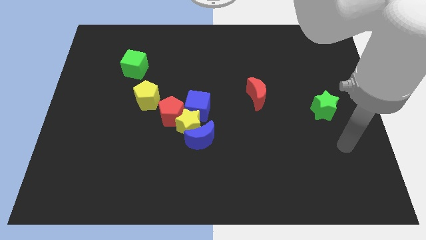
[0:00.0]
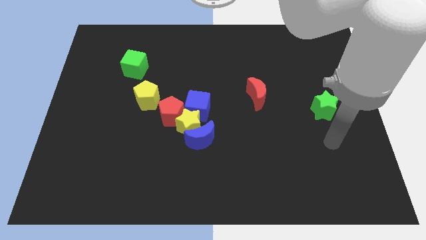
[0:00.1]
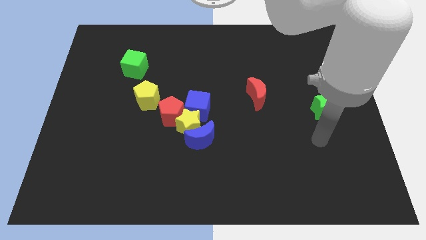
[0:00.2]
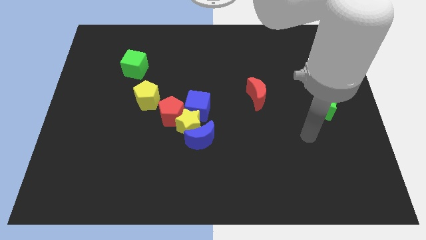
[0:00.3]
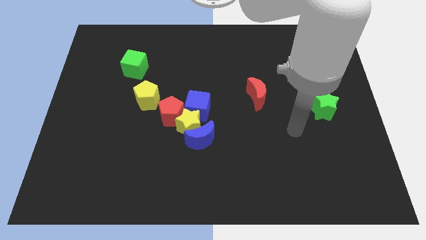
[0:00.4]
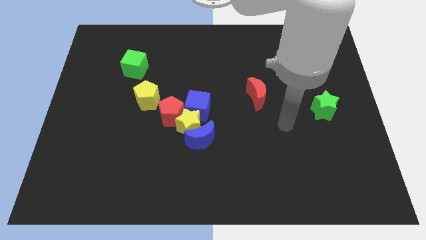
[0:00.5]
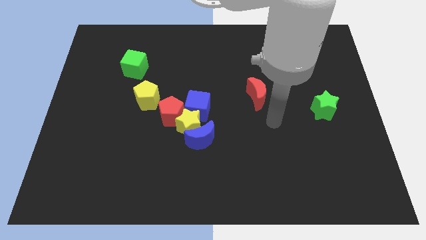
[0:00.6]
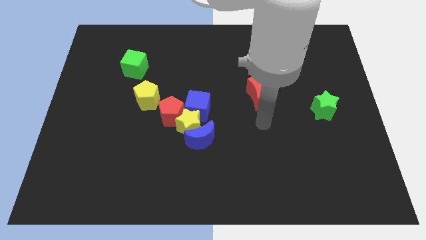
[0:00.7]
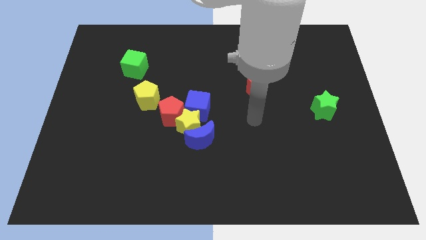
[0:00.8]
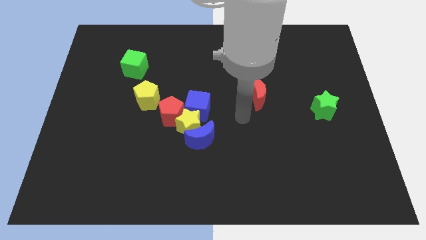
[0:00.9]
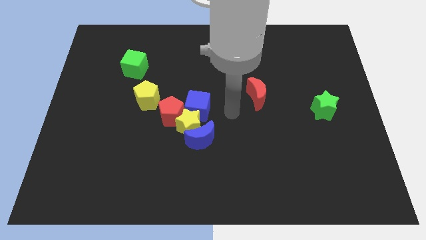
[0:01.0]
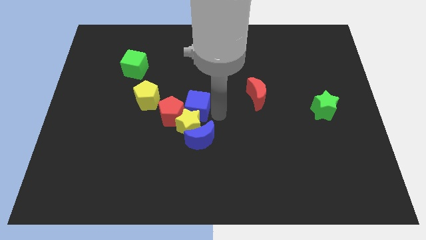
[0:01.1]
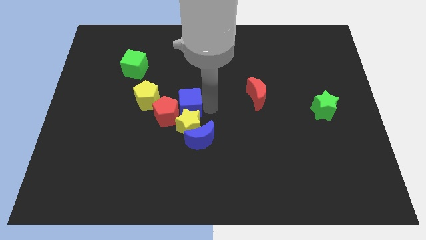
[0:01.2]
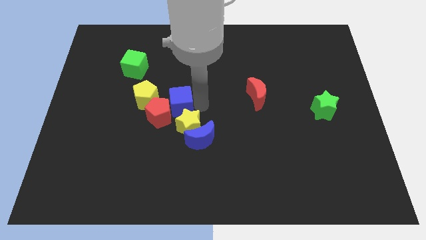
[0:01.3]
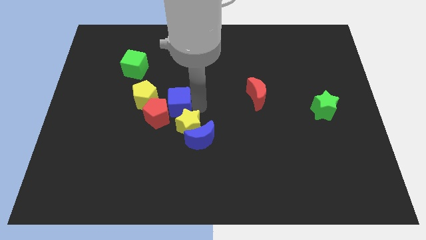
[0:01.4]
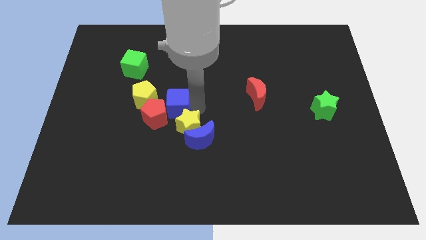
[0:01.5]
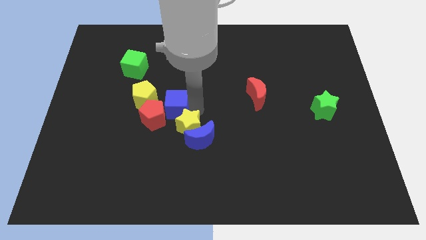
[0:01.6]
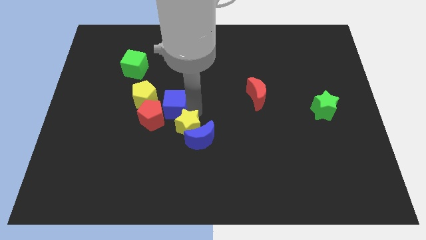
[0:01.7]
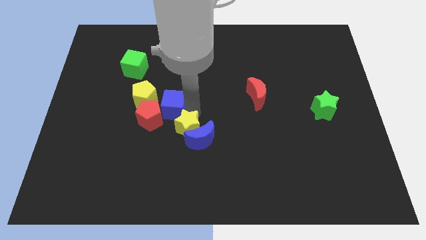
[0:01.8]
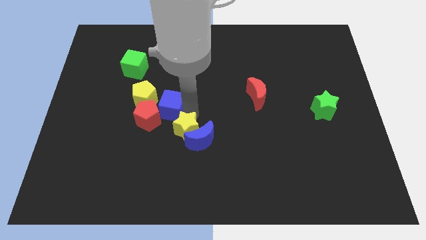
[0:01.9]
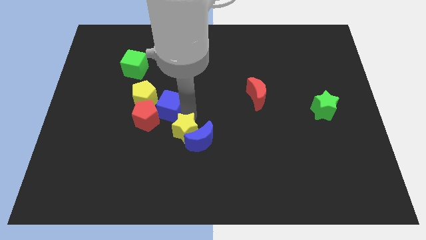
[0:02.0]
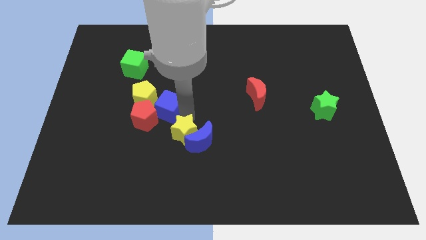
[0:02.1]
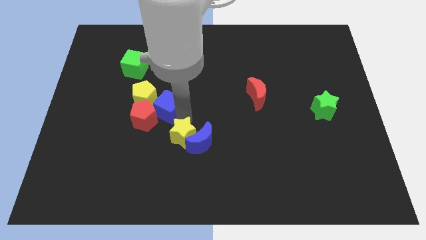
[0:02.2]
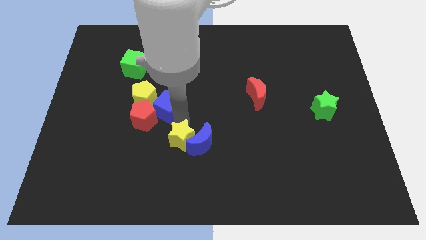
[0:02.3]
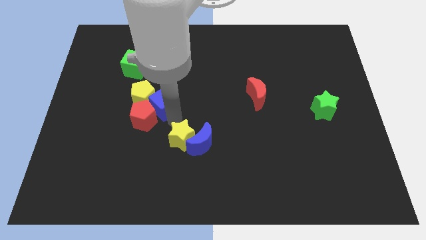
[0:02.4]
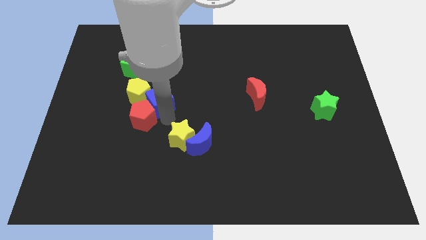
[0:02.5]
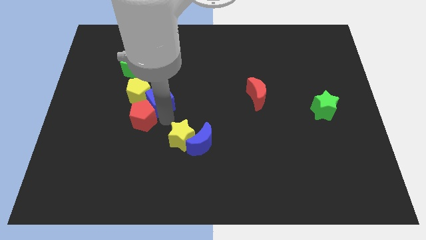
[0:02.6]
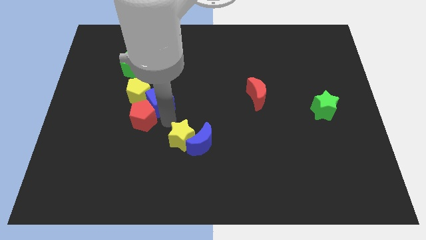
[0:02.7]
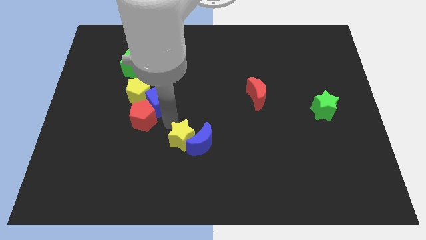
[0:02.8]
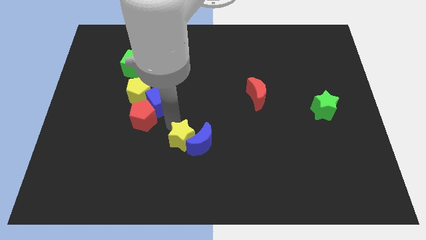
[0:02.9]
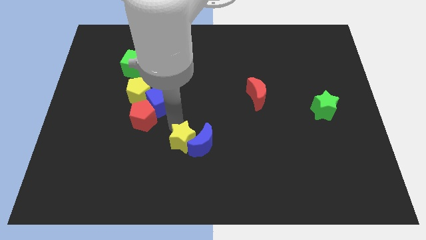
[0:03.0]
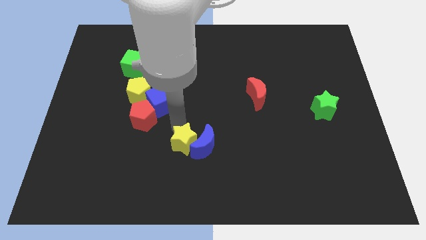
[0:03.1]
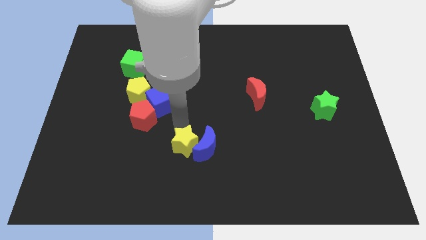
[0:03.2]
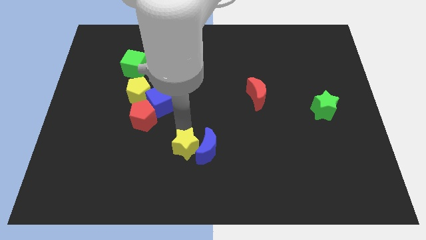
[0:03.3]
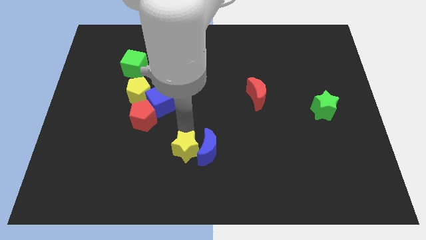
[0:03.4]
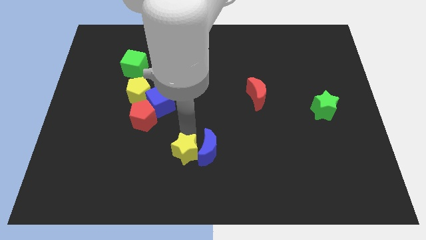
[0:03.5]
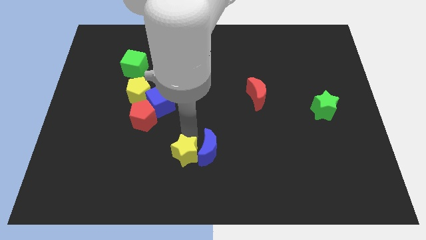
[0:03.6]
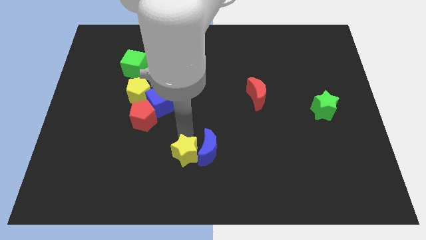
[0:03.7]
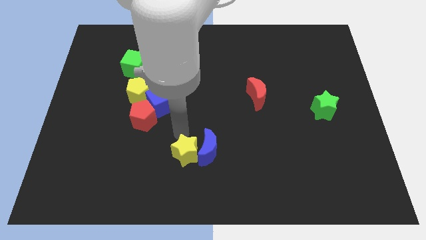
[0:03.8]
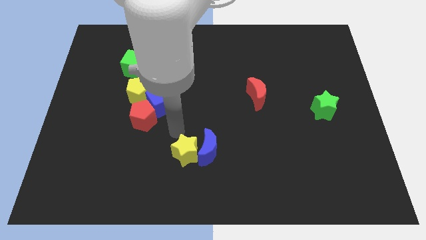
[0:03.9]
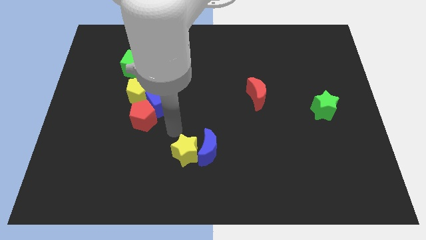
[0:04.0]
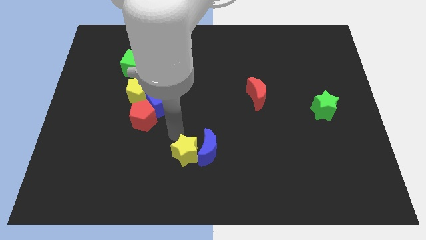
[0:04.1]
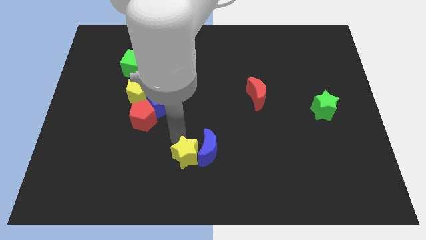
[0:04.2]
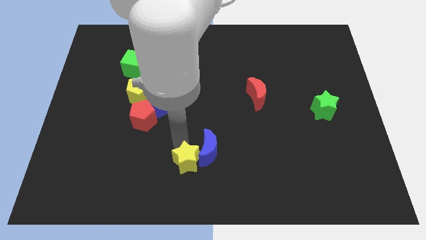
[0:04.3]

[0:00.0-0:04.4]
pull the yellow star apart from the blue moon, red pentagon, and blue cube

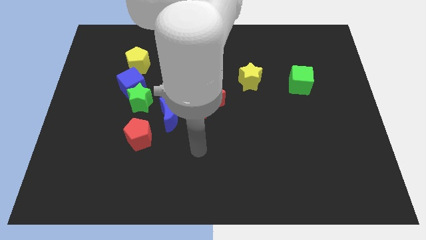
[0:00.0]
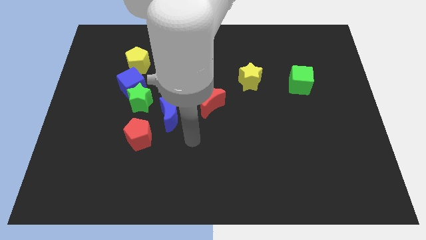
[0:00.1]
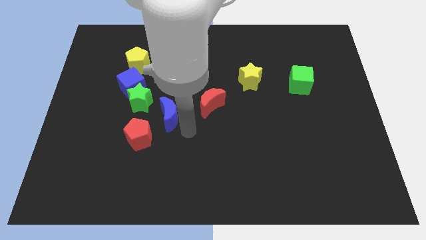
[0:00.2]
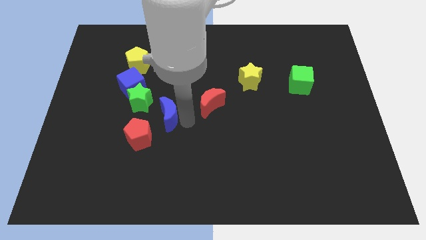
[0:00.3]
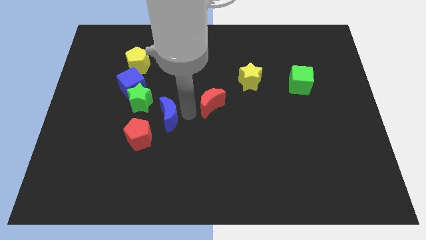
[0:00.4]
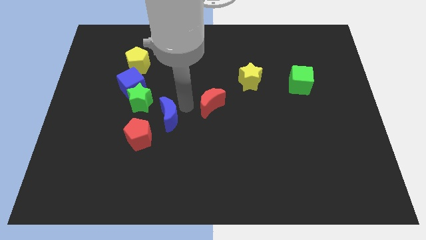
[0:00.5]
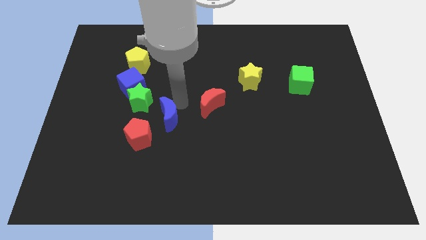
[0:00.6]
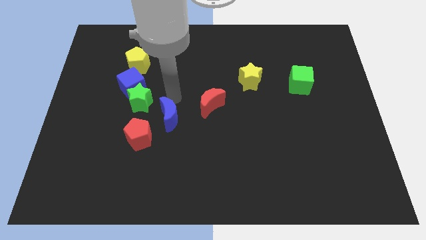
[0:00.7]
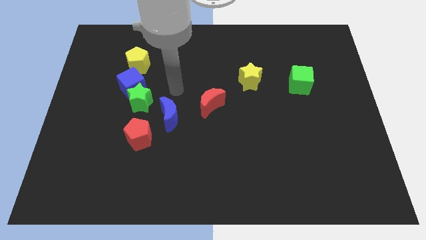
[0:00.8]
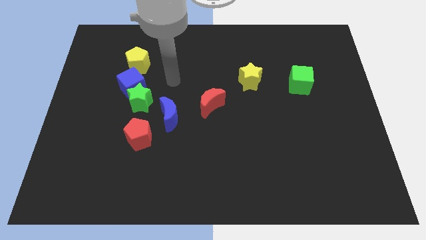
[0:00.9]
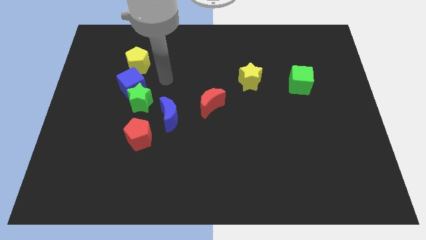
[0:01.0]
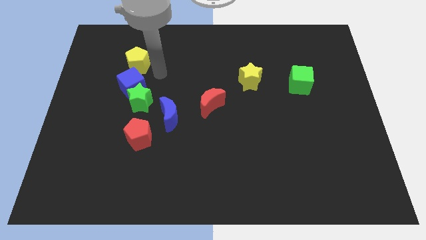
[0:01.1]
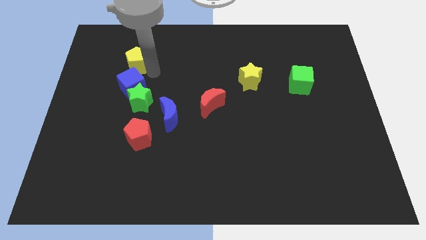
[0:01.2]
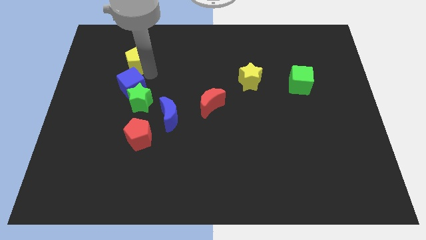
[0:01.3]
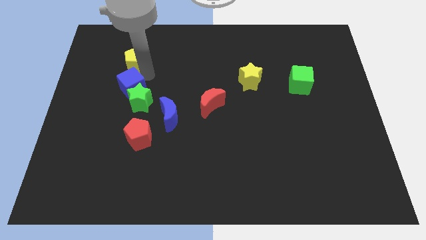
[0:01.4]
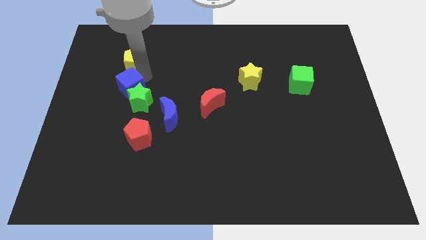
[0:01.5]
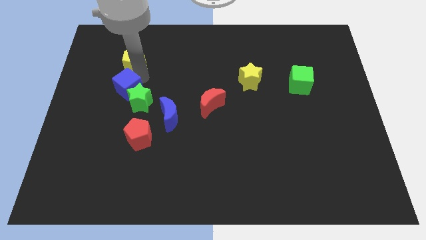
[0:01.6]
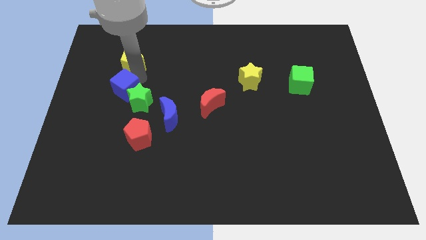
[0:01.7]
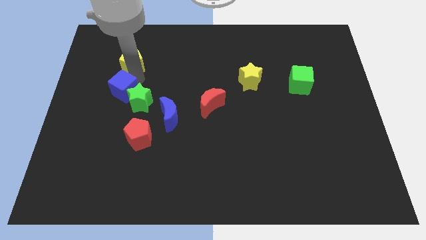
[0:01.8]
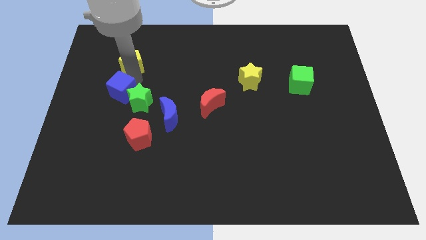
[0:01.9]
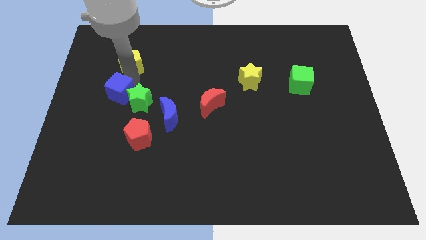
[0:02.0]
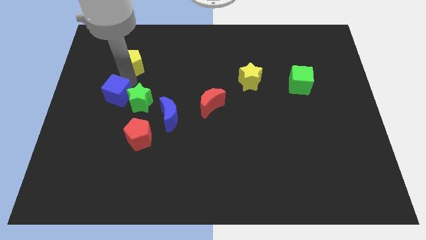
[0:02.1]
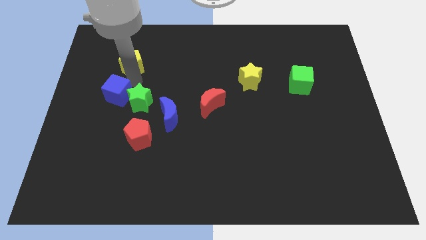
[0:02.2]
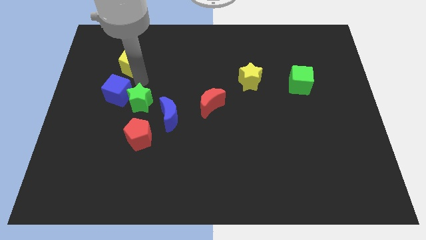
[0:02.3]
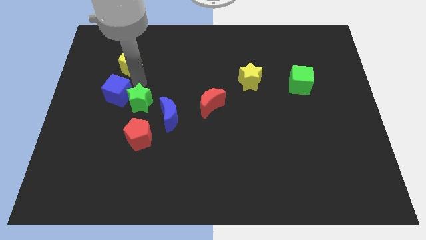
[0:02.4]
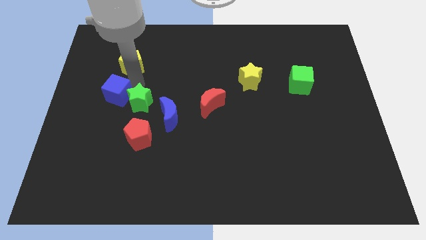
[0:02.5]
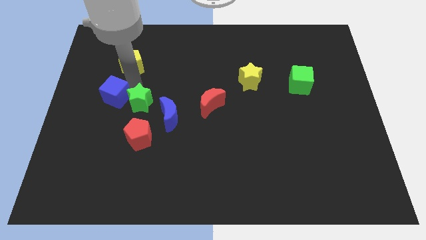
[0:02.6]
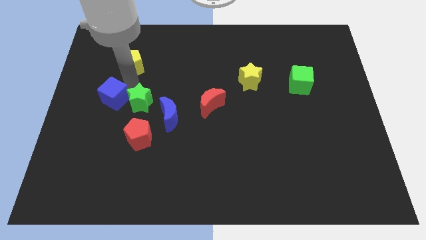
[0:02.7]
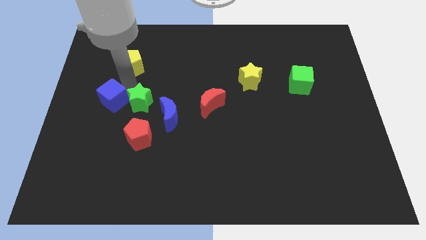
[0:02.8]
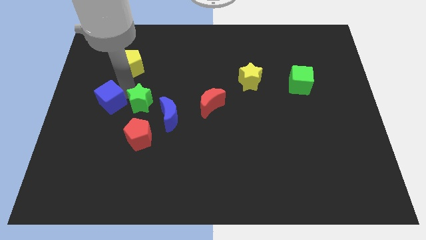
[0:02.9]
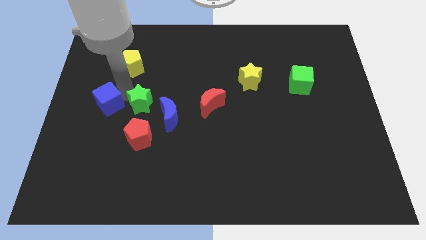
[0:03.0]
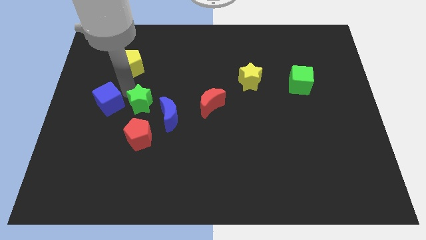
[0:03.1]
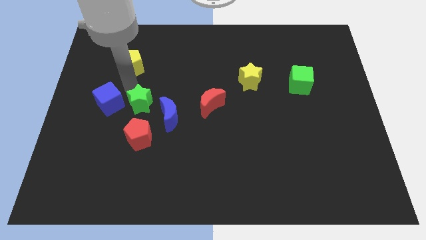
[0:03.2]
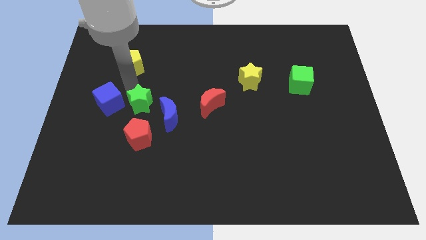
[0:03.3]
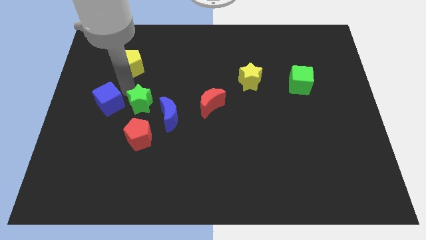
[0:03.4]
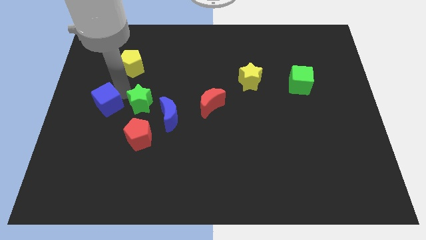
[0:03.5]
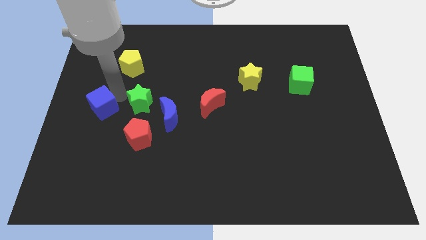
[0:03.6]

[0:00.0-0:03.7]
move the blue cube away from the green star and yellow pentagon

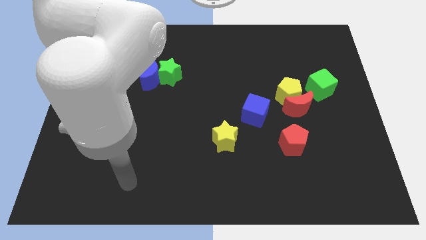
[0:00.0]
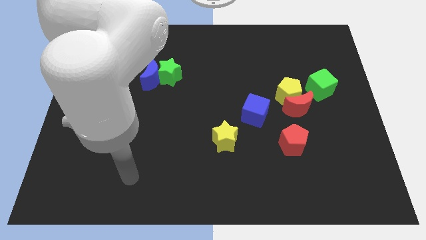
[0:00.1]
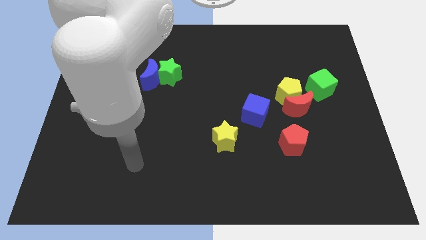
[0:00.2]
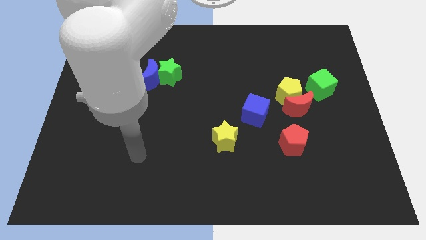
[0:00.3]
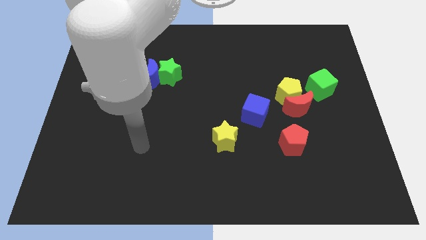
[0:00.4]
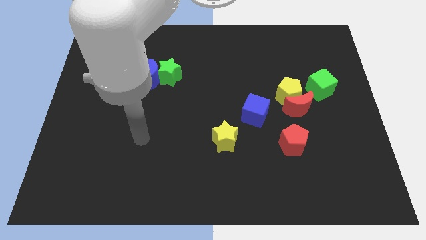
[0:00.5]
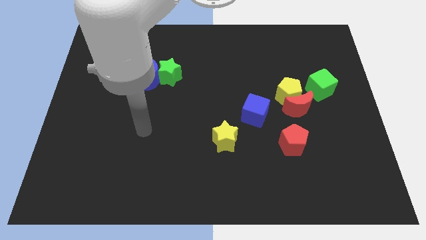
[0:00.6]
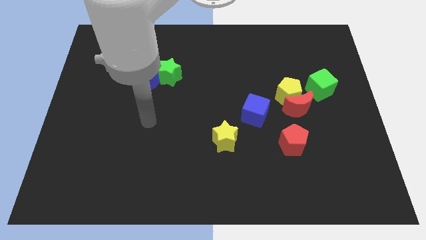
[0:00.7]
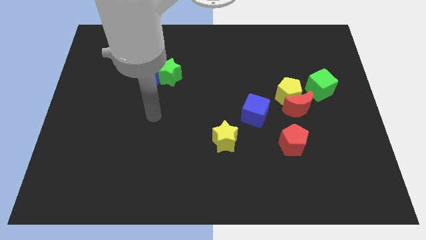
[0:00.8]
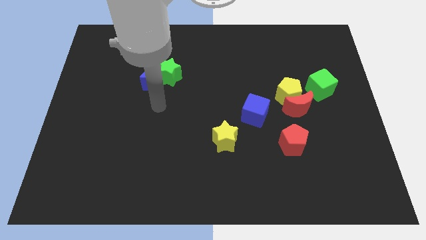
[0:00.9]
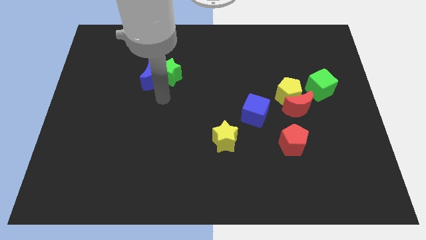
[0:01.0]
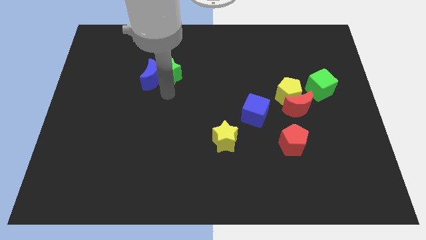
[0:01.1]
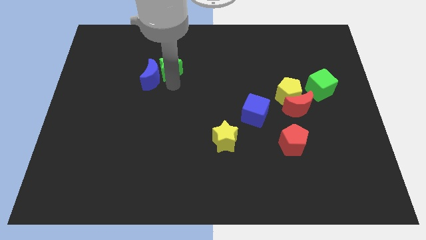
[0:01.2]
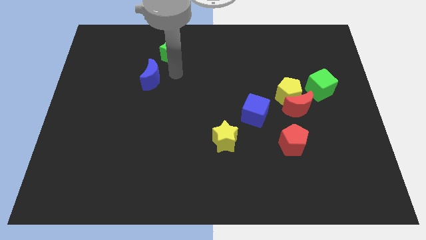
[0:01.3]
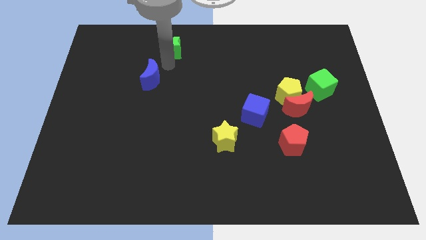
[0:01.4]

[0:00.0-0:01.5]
pull the blue moon apart from the green star
